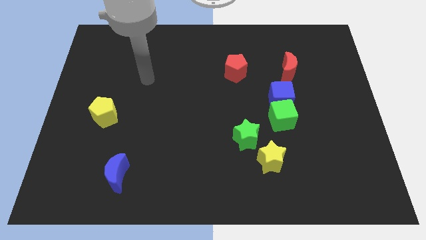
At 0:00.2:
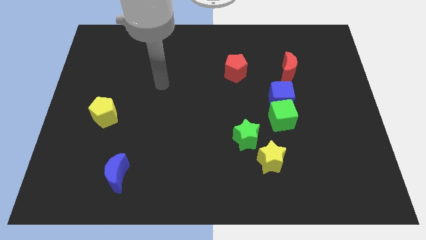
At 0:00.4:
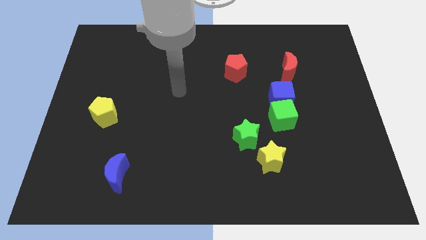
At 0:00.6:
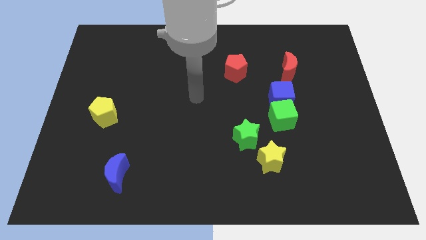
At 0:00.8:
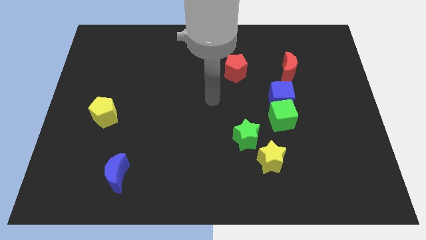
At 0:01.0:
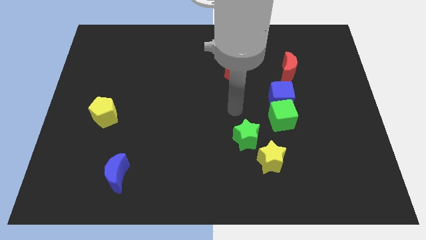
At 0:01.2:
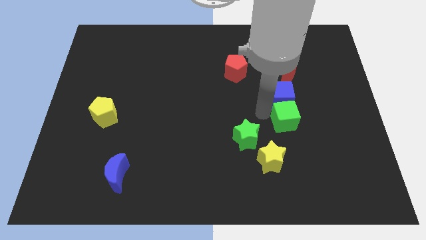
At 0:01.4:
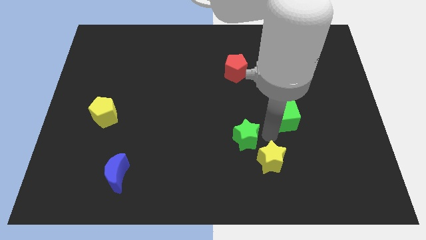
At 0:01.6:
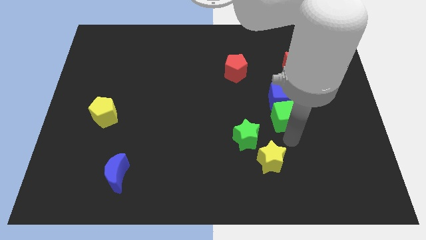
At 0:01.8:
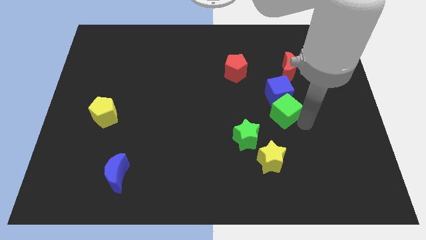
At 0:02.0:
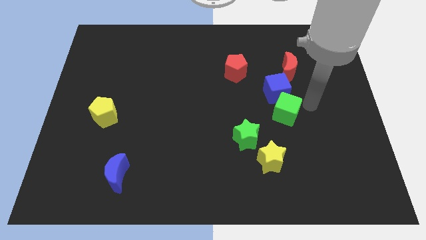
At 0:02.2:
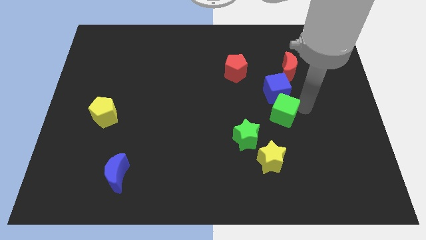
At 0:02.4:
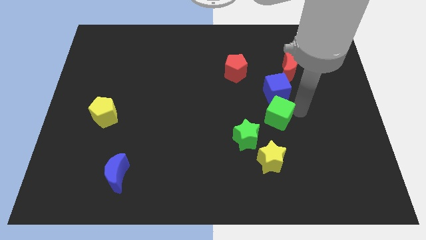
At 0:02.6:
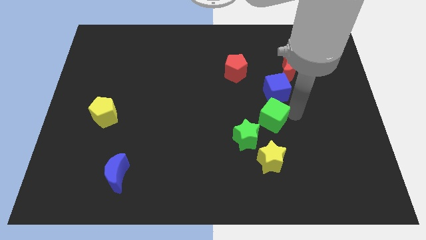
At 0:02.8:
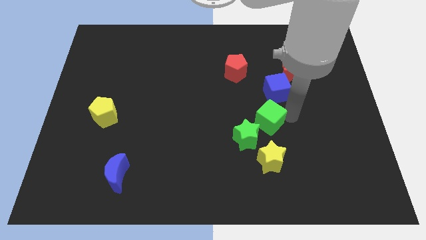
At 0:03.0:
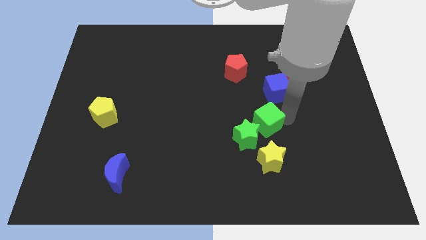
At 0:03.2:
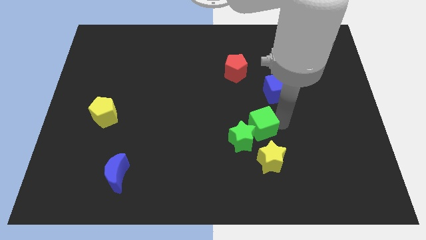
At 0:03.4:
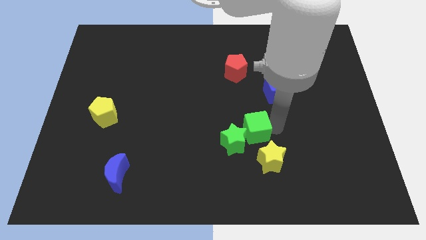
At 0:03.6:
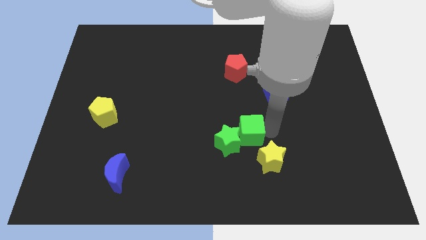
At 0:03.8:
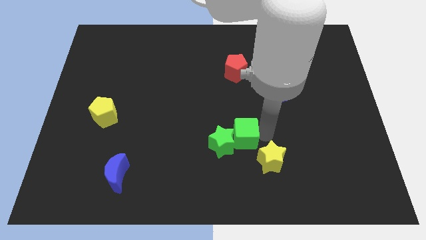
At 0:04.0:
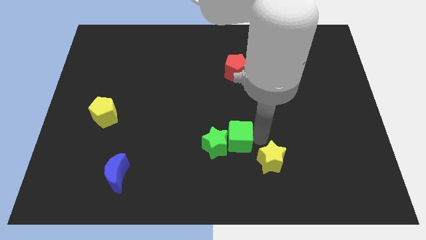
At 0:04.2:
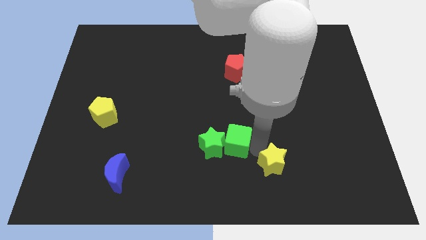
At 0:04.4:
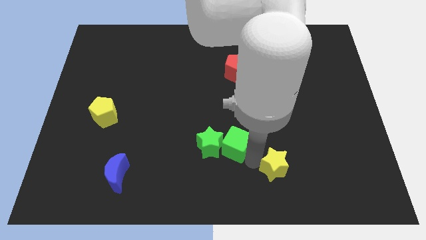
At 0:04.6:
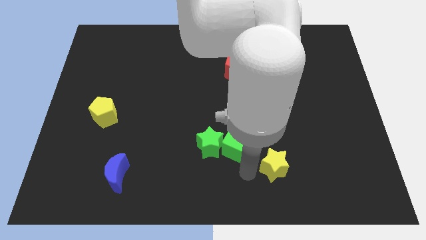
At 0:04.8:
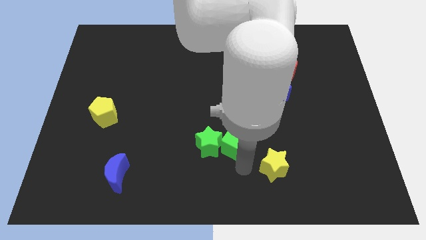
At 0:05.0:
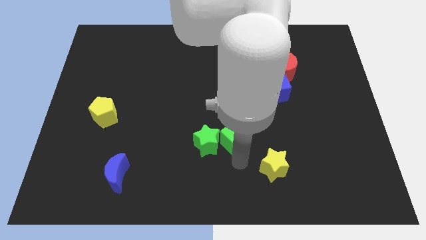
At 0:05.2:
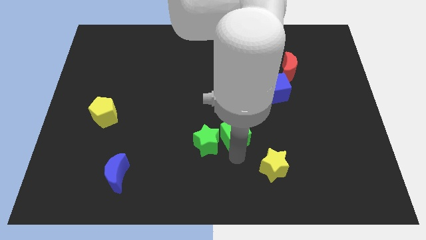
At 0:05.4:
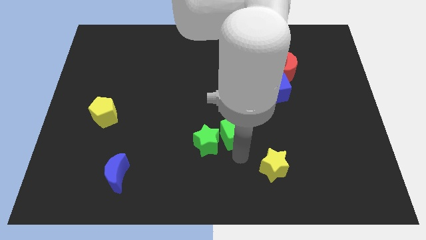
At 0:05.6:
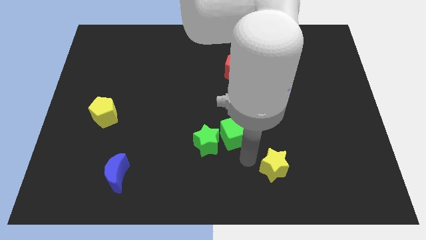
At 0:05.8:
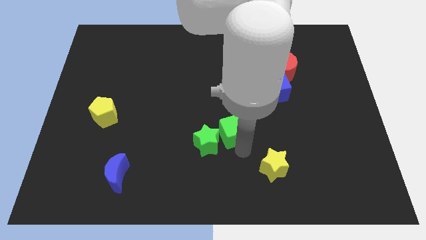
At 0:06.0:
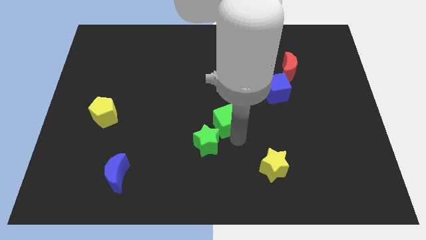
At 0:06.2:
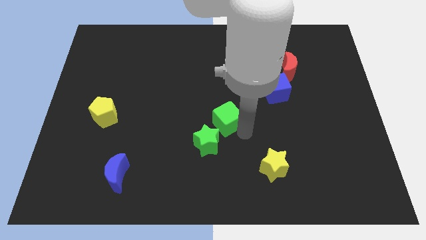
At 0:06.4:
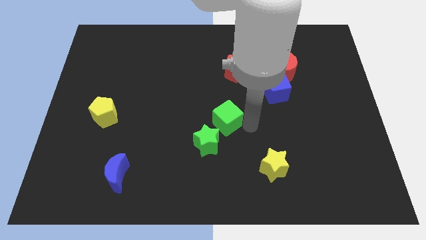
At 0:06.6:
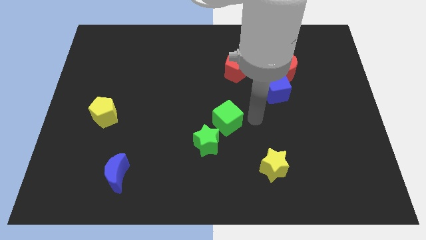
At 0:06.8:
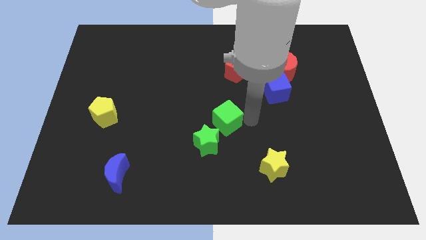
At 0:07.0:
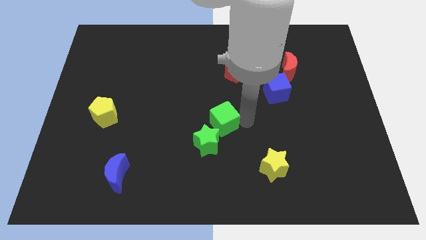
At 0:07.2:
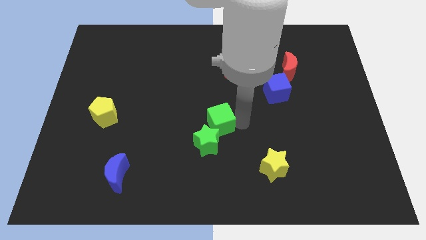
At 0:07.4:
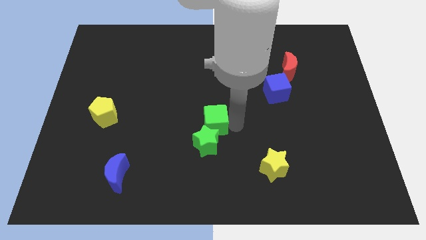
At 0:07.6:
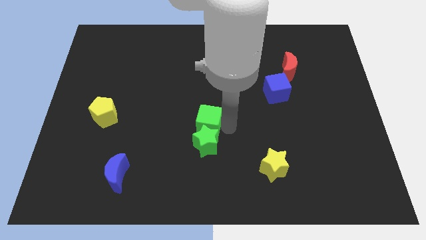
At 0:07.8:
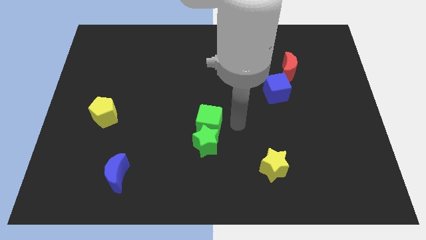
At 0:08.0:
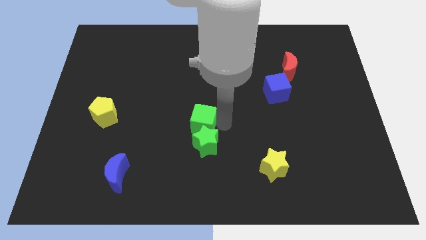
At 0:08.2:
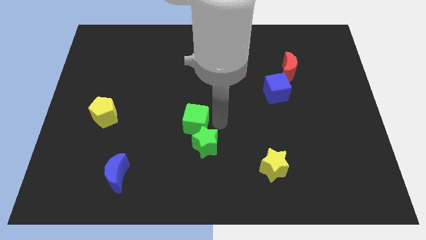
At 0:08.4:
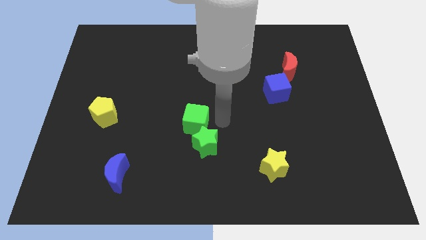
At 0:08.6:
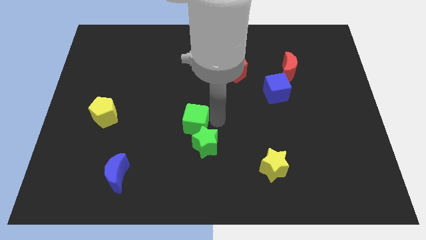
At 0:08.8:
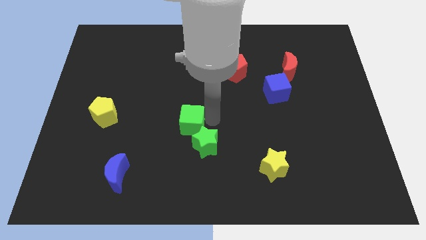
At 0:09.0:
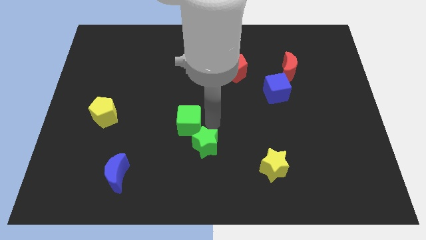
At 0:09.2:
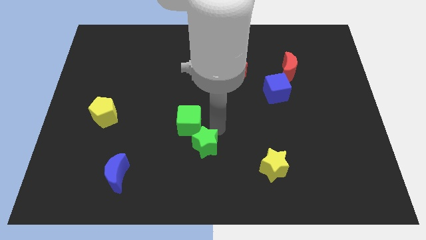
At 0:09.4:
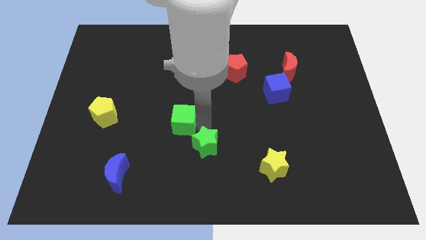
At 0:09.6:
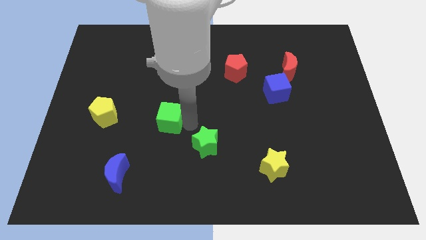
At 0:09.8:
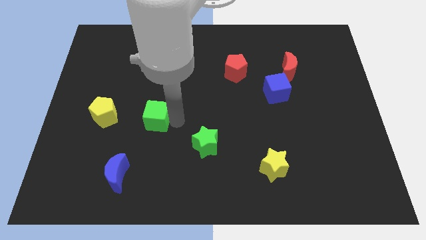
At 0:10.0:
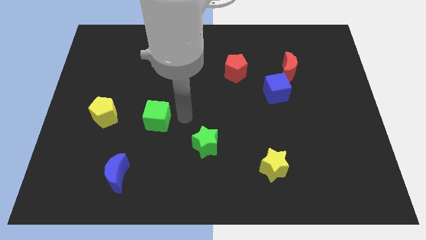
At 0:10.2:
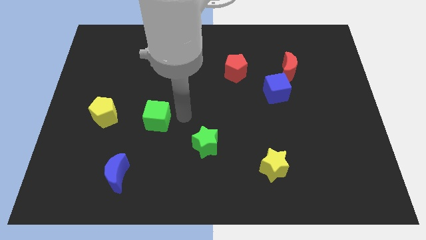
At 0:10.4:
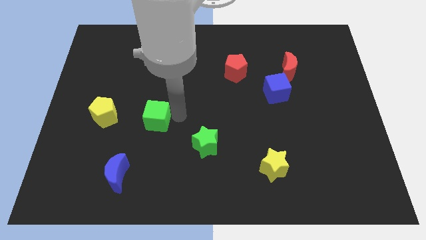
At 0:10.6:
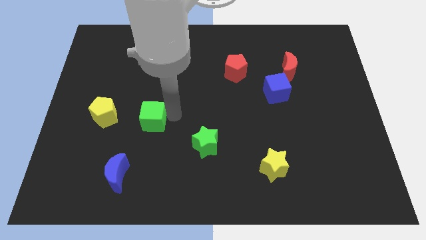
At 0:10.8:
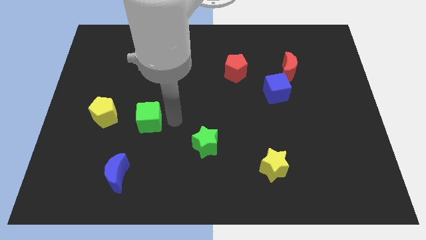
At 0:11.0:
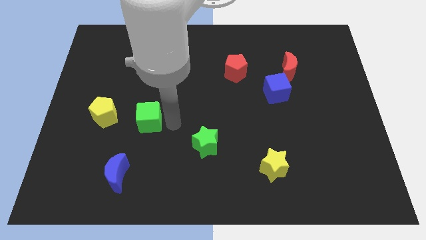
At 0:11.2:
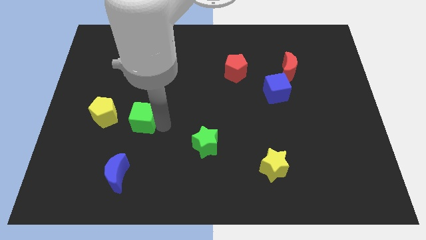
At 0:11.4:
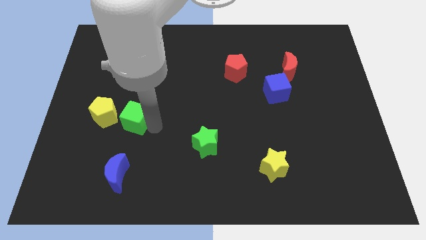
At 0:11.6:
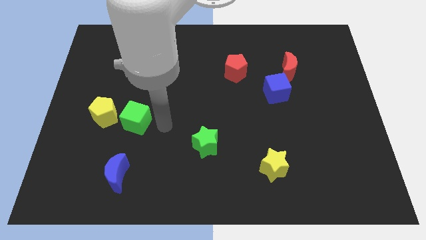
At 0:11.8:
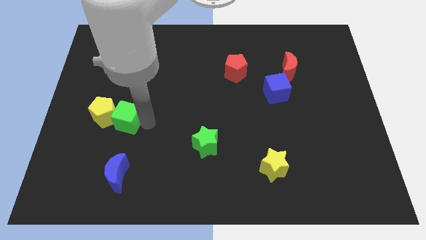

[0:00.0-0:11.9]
move the green cube towards the yellow pentagon

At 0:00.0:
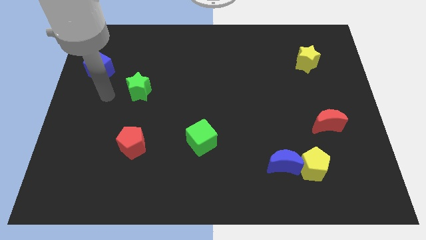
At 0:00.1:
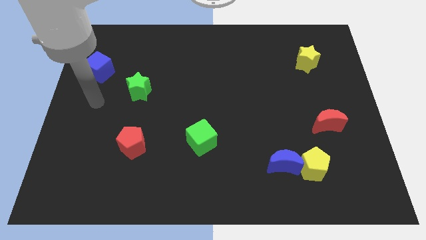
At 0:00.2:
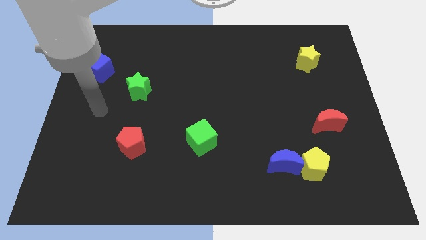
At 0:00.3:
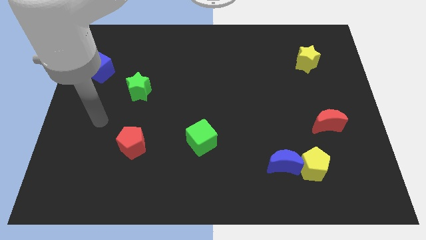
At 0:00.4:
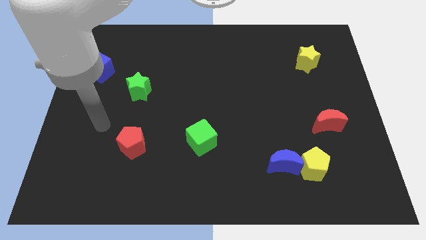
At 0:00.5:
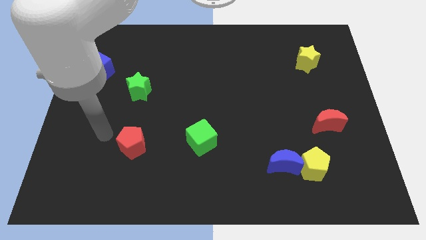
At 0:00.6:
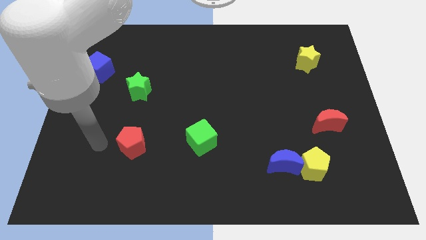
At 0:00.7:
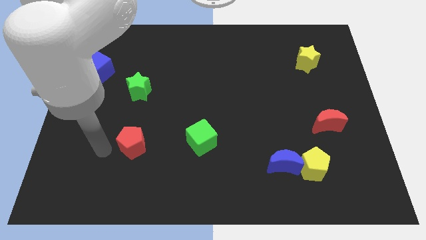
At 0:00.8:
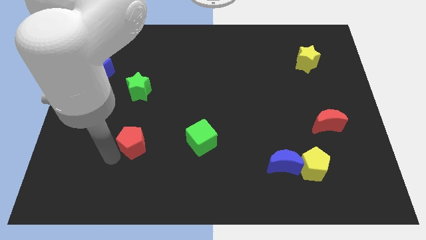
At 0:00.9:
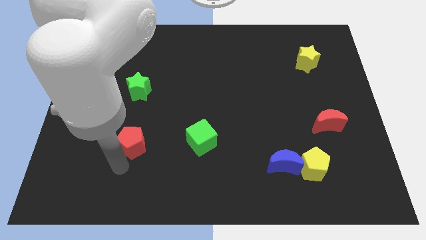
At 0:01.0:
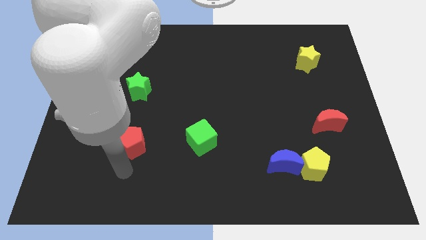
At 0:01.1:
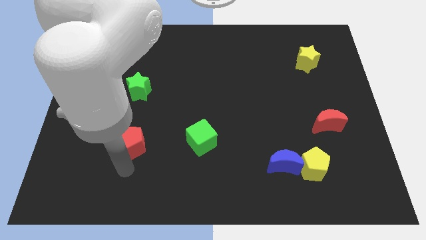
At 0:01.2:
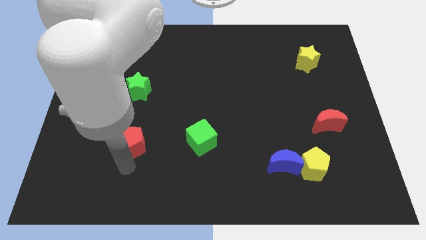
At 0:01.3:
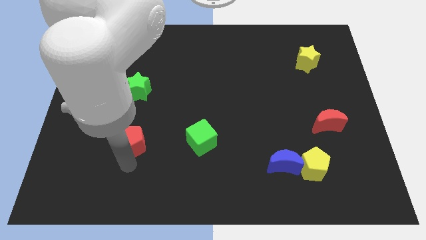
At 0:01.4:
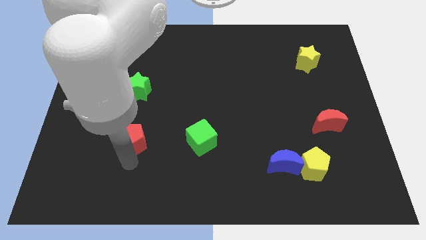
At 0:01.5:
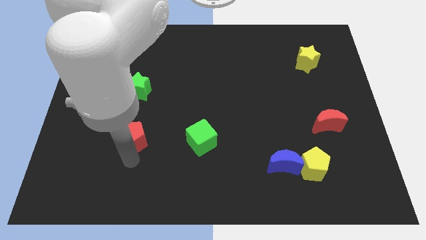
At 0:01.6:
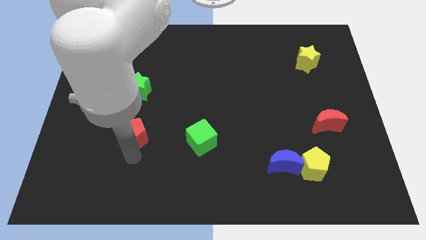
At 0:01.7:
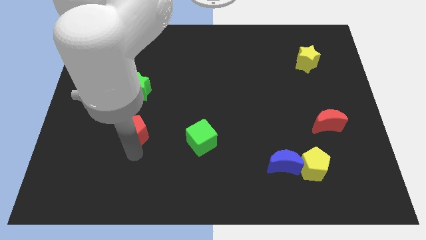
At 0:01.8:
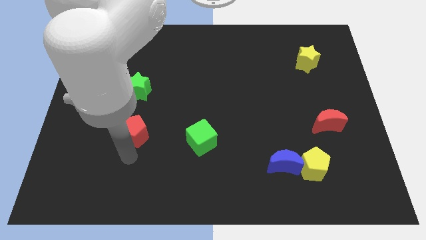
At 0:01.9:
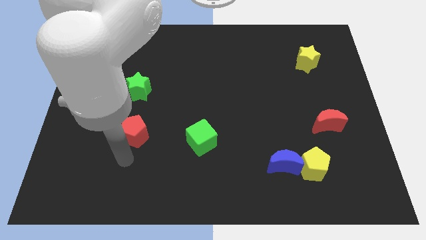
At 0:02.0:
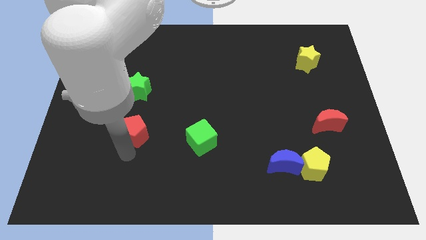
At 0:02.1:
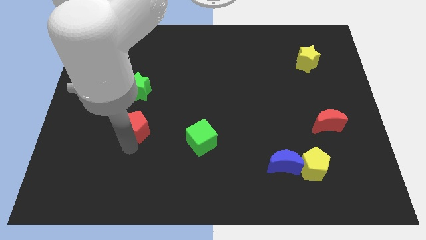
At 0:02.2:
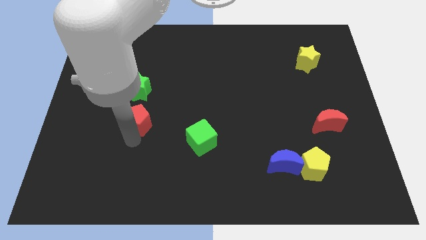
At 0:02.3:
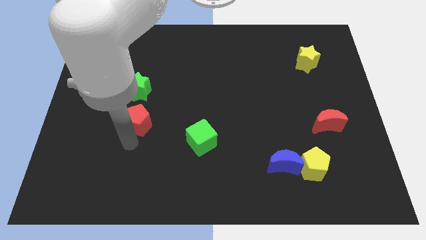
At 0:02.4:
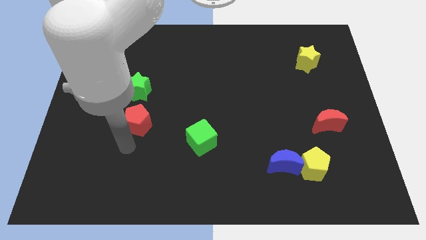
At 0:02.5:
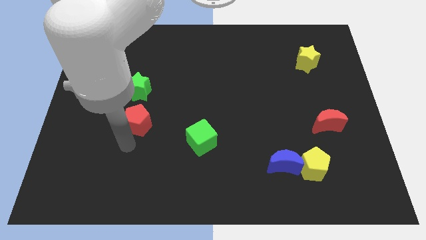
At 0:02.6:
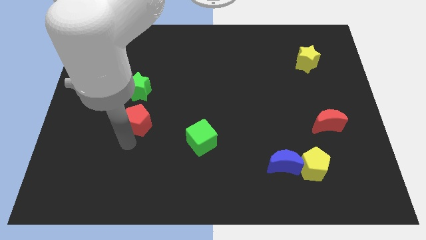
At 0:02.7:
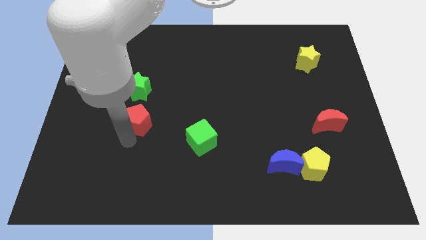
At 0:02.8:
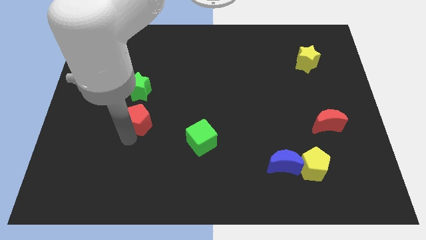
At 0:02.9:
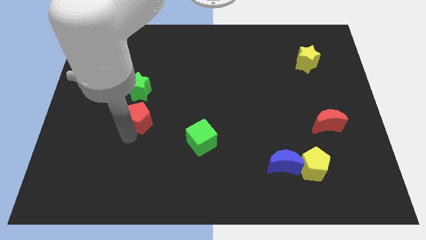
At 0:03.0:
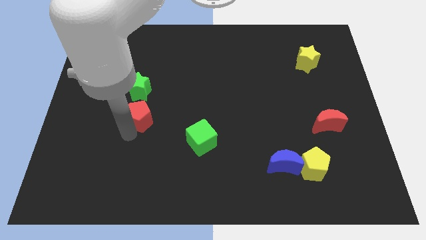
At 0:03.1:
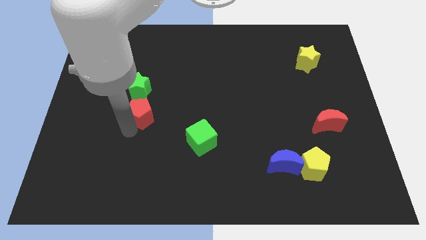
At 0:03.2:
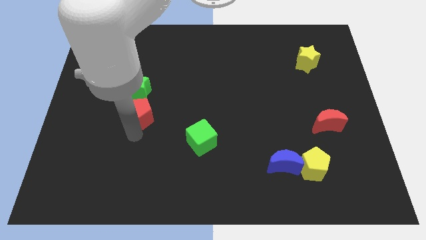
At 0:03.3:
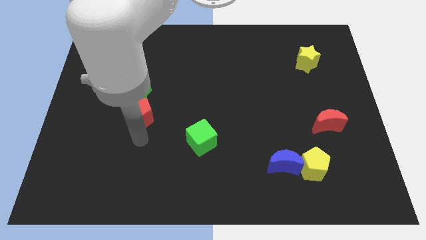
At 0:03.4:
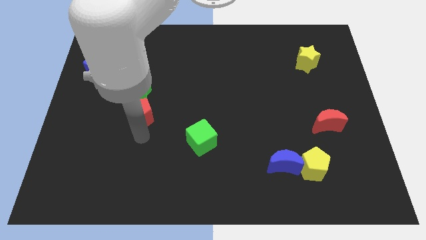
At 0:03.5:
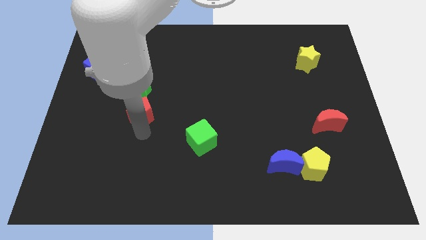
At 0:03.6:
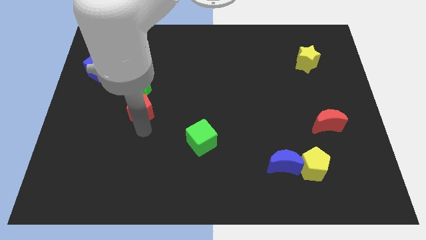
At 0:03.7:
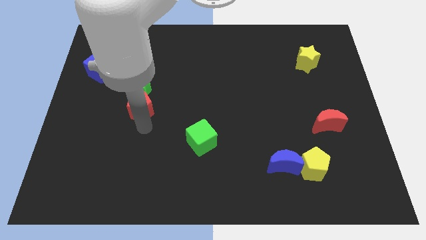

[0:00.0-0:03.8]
move the red pentagon towards the green star
